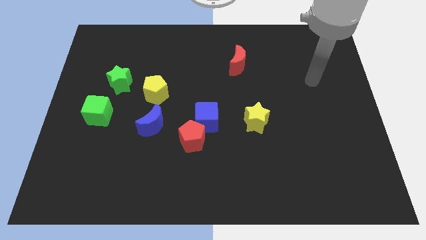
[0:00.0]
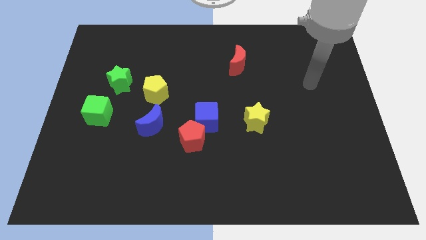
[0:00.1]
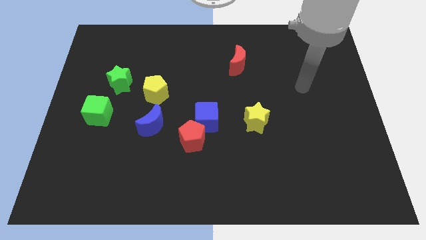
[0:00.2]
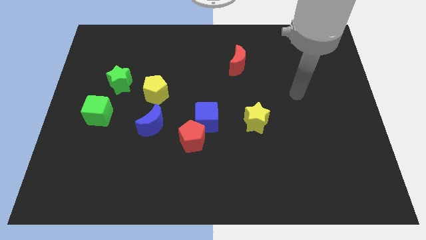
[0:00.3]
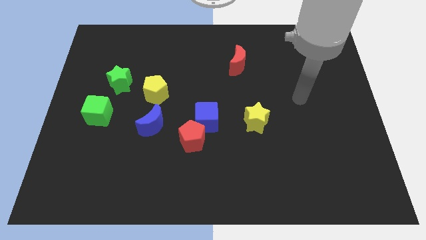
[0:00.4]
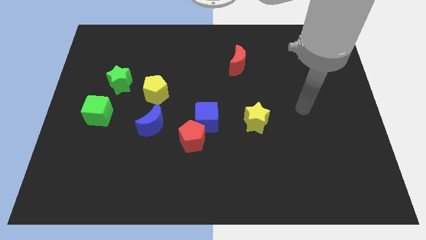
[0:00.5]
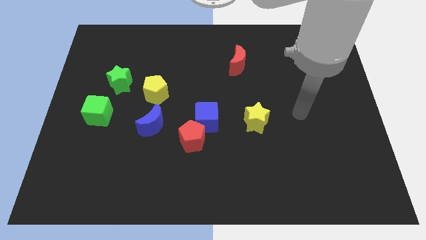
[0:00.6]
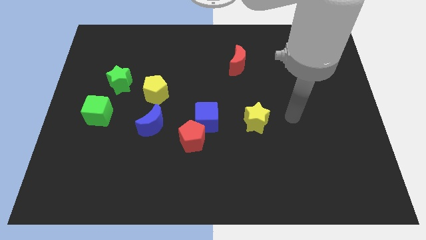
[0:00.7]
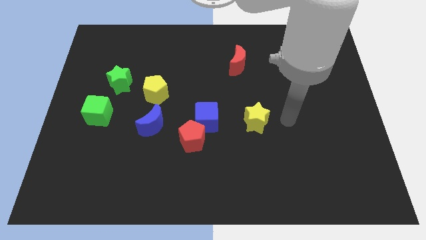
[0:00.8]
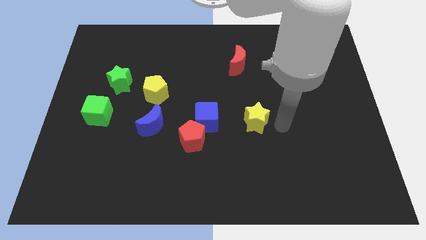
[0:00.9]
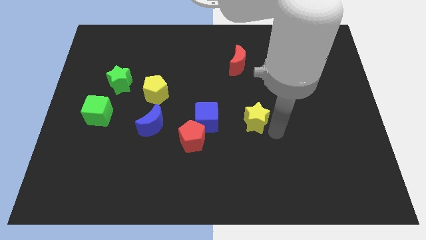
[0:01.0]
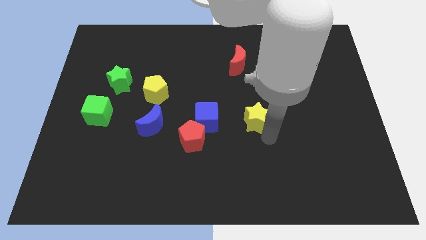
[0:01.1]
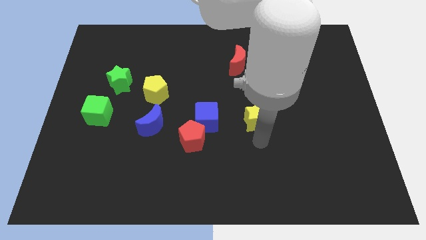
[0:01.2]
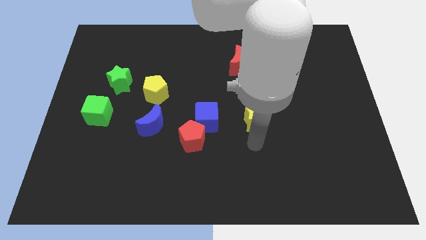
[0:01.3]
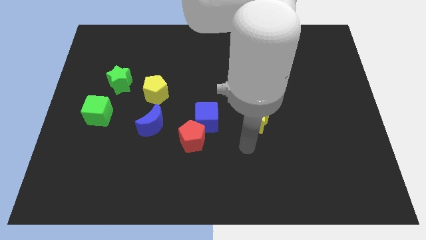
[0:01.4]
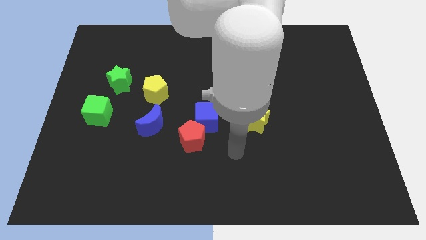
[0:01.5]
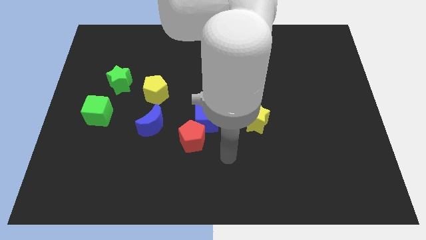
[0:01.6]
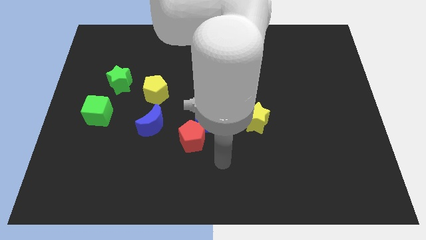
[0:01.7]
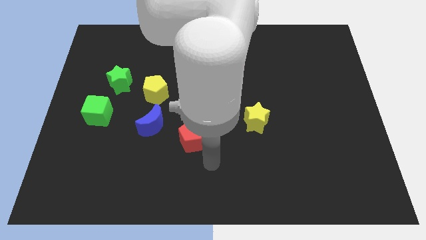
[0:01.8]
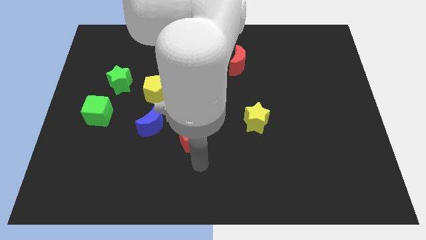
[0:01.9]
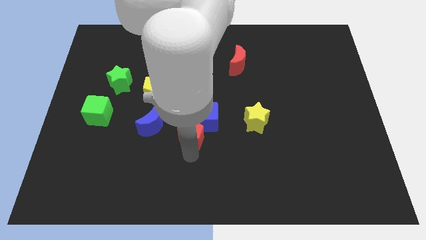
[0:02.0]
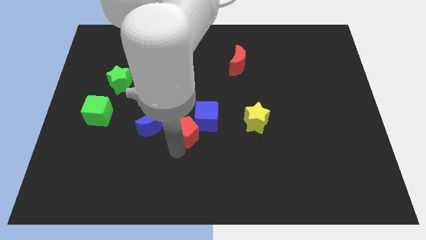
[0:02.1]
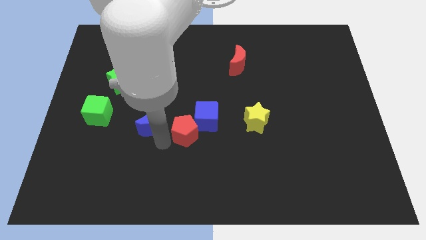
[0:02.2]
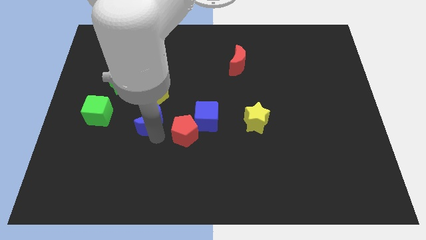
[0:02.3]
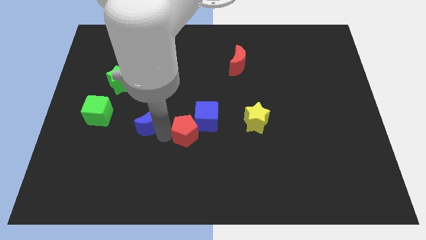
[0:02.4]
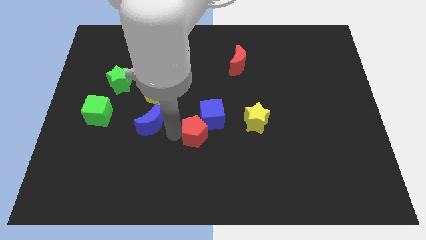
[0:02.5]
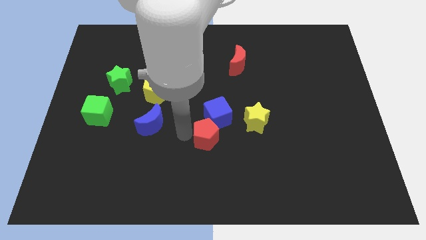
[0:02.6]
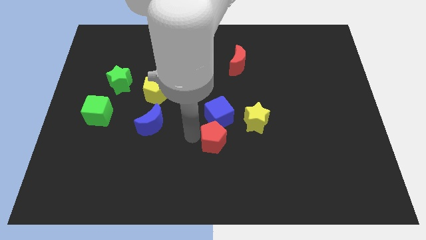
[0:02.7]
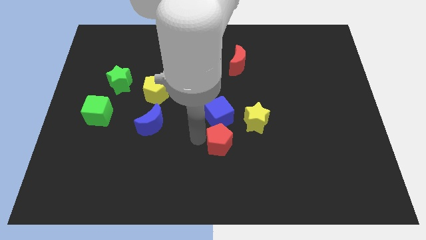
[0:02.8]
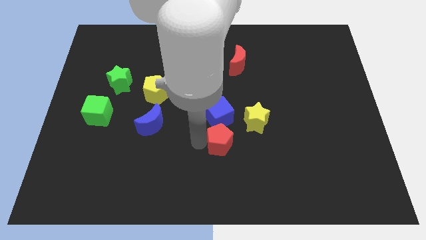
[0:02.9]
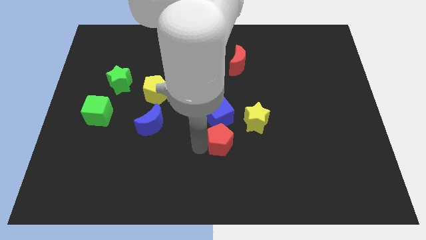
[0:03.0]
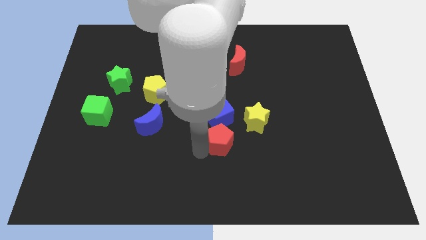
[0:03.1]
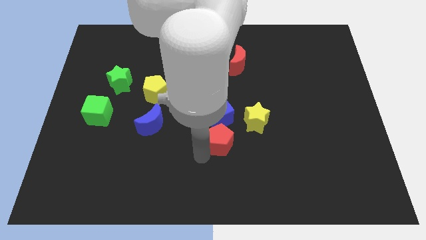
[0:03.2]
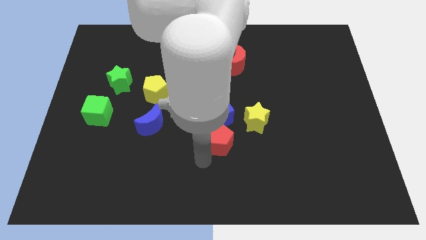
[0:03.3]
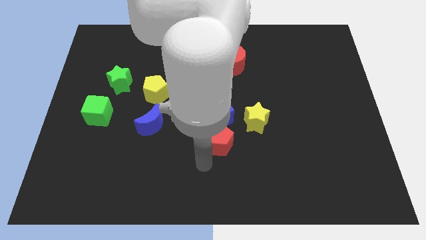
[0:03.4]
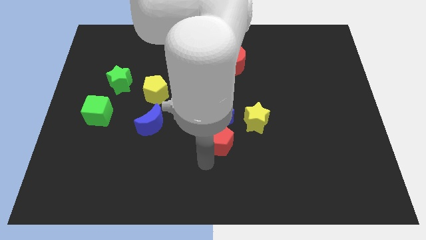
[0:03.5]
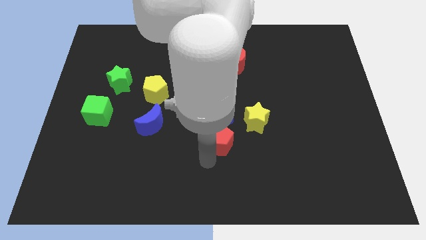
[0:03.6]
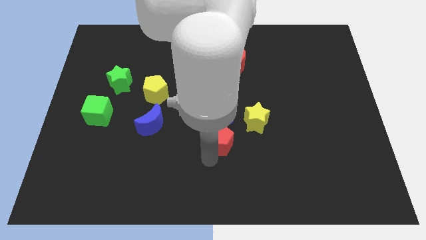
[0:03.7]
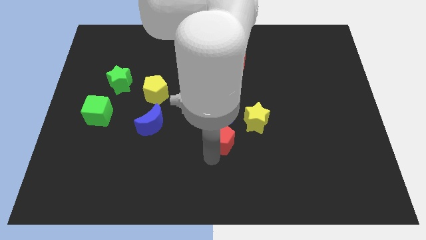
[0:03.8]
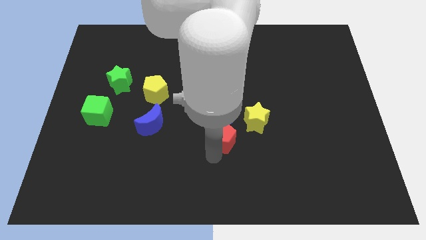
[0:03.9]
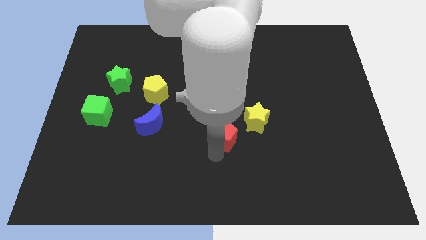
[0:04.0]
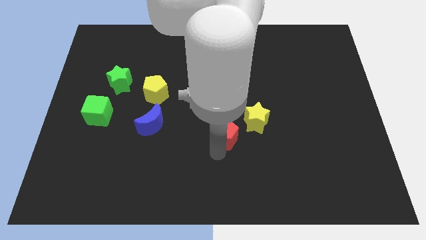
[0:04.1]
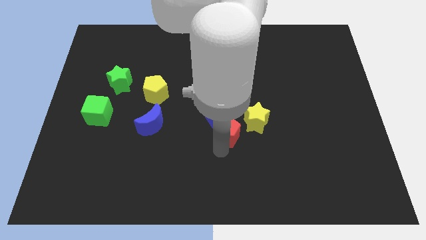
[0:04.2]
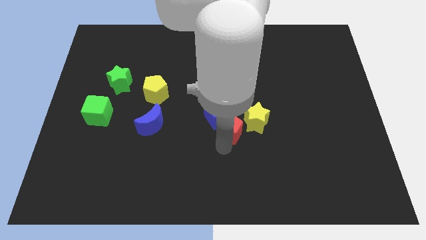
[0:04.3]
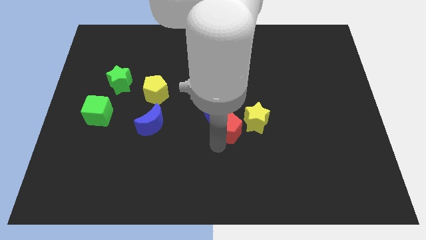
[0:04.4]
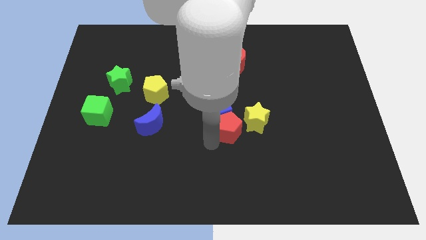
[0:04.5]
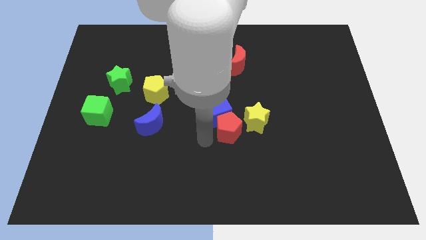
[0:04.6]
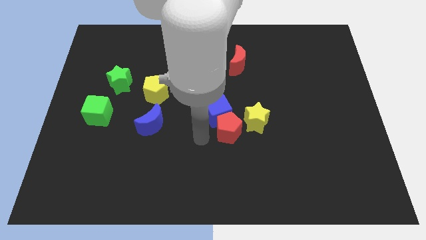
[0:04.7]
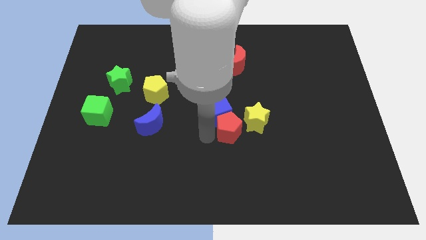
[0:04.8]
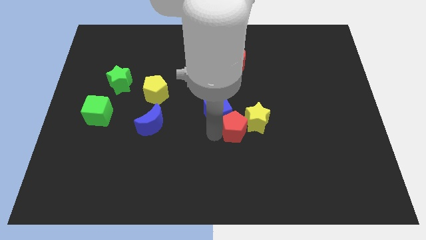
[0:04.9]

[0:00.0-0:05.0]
push the red pentagon to the yellow star

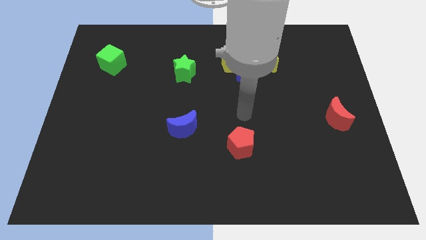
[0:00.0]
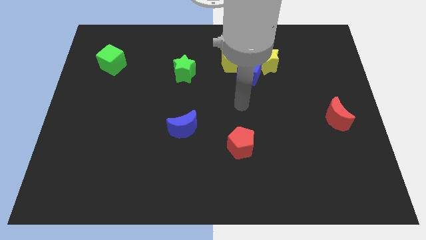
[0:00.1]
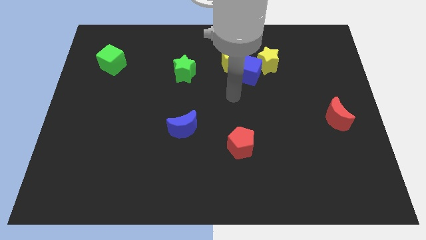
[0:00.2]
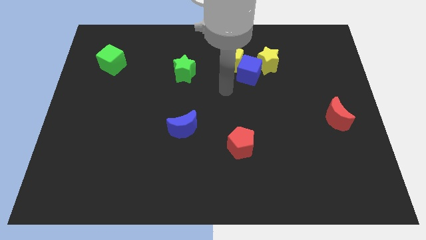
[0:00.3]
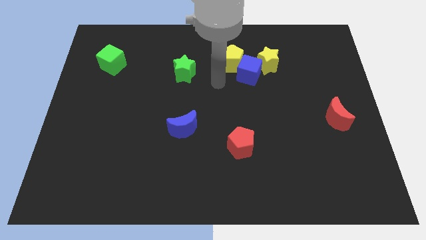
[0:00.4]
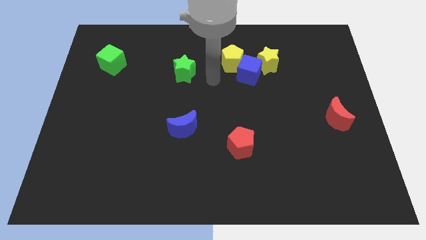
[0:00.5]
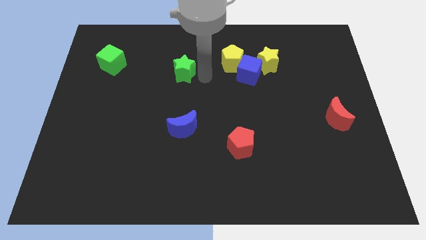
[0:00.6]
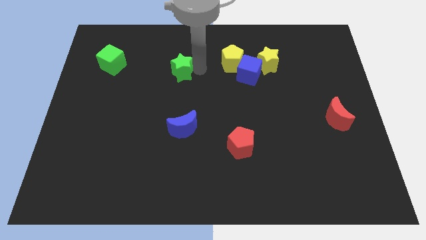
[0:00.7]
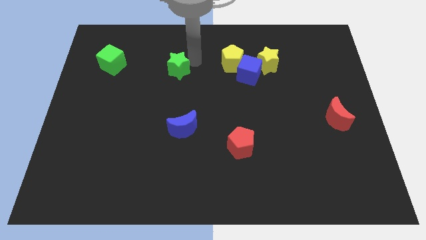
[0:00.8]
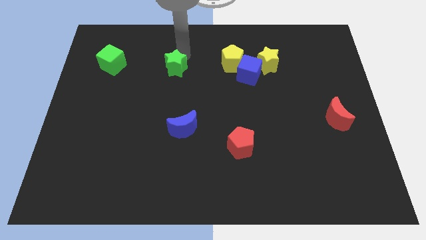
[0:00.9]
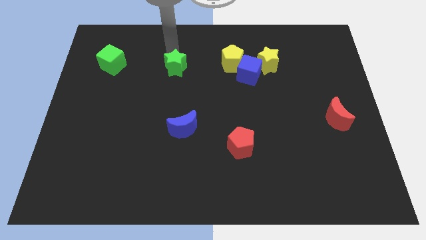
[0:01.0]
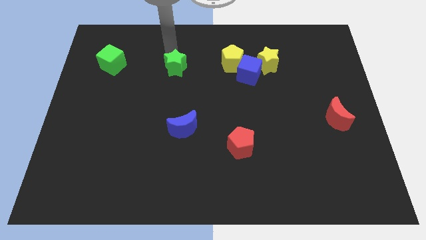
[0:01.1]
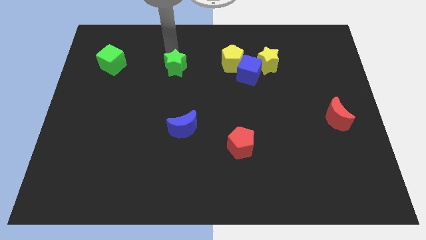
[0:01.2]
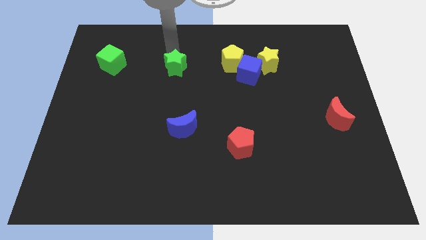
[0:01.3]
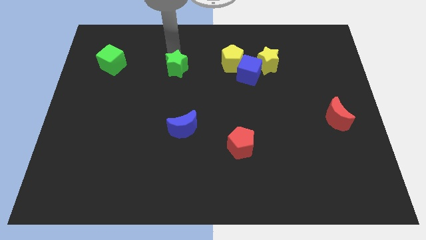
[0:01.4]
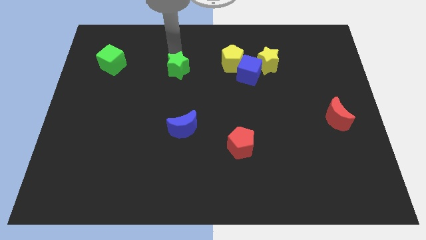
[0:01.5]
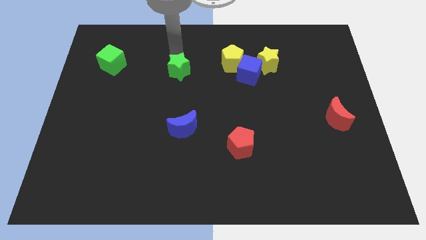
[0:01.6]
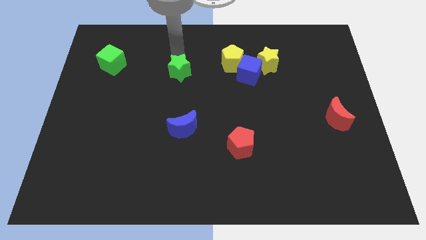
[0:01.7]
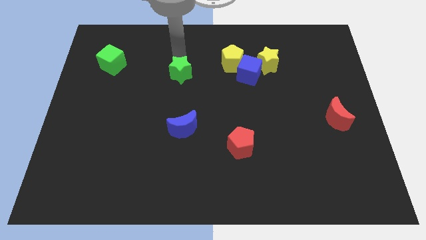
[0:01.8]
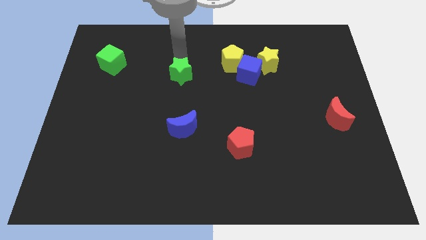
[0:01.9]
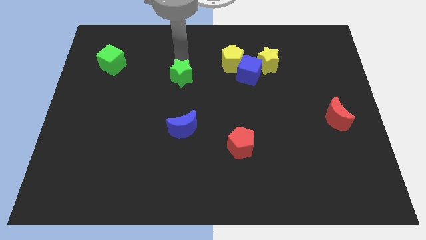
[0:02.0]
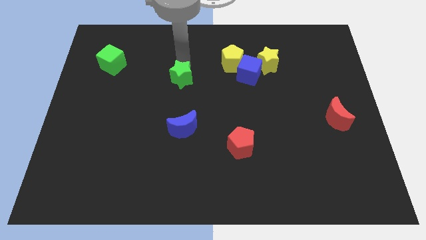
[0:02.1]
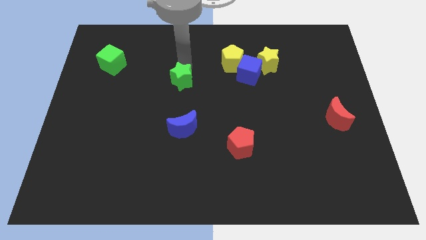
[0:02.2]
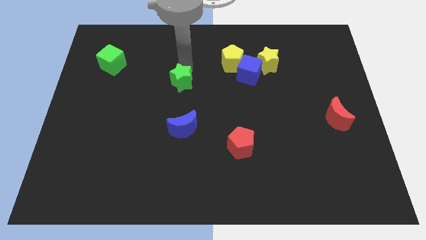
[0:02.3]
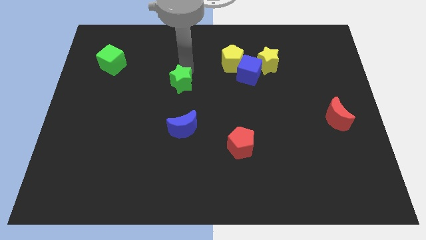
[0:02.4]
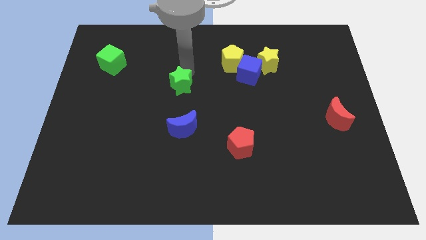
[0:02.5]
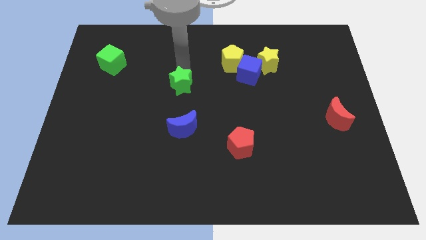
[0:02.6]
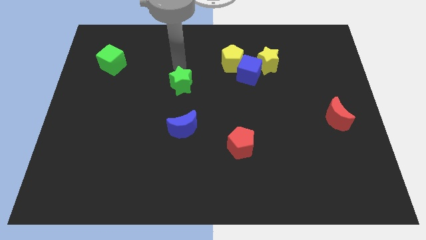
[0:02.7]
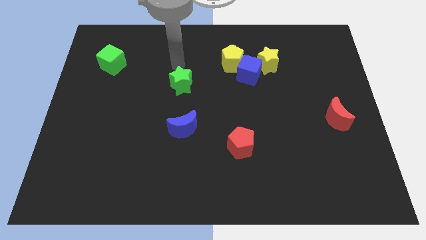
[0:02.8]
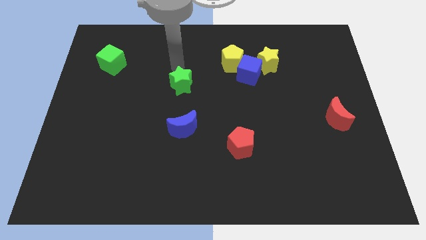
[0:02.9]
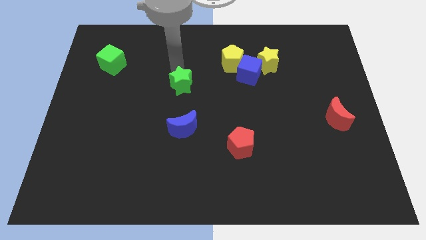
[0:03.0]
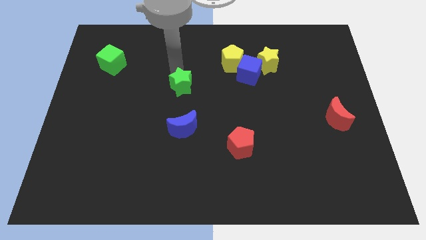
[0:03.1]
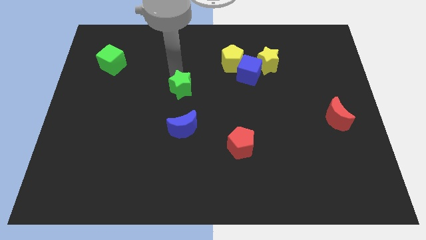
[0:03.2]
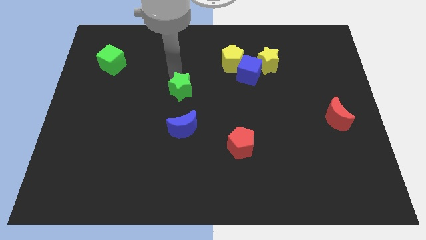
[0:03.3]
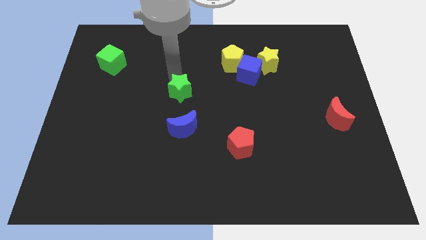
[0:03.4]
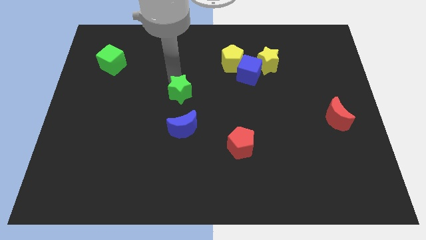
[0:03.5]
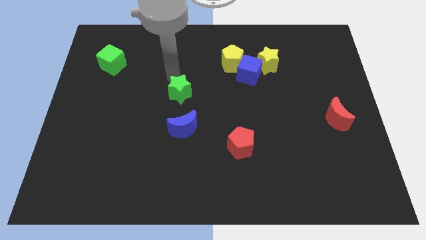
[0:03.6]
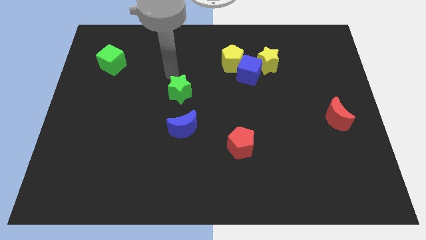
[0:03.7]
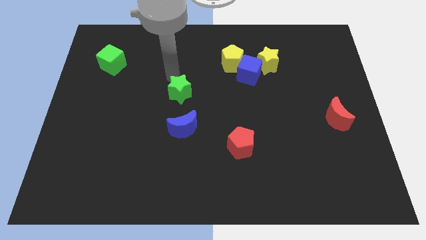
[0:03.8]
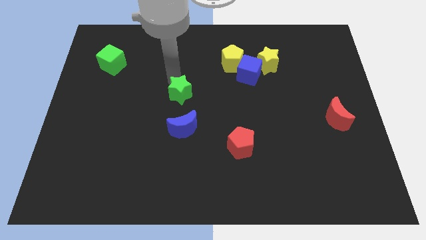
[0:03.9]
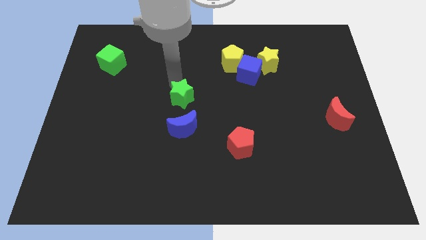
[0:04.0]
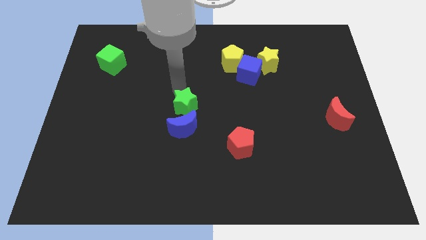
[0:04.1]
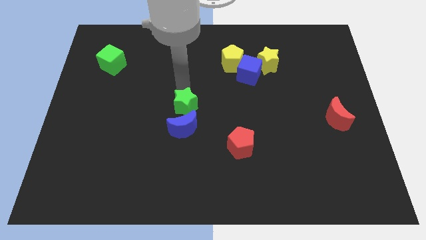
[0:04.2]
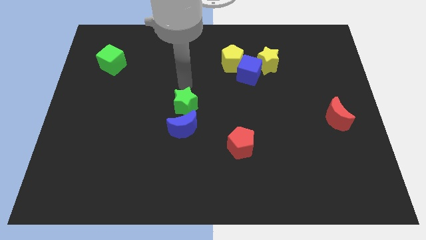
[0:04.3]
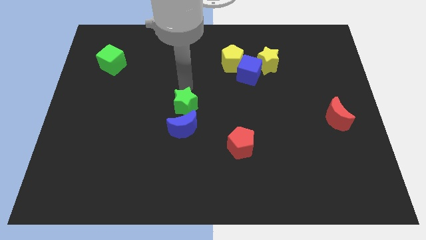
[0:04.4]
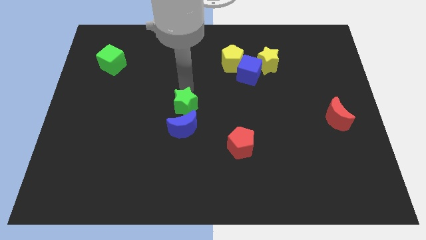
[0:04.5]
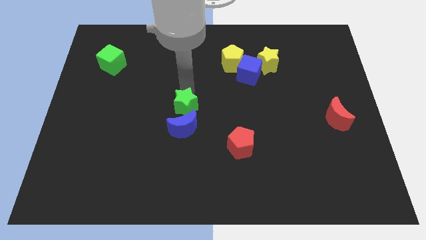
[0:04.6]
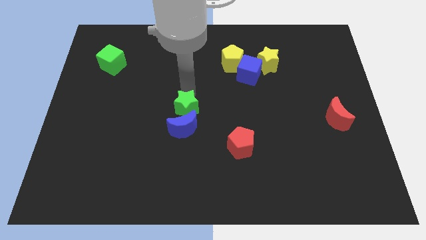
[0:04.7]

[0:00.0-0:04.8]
put the green star to the blue moon
